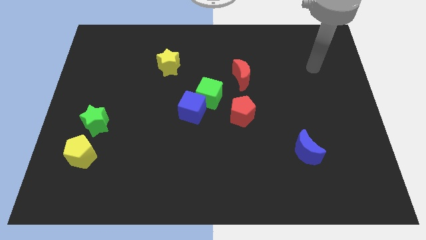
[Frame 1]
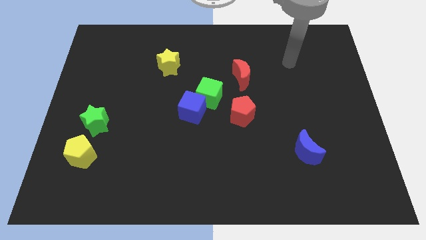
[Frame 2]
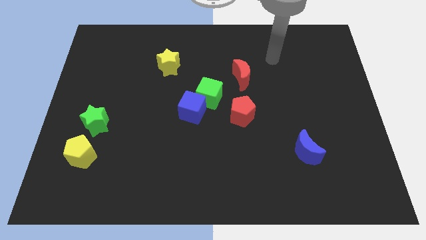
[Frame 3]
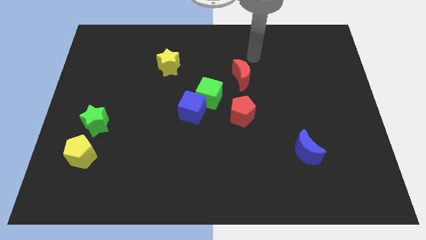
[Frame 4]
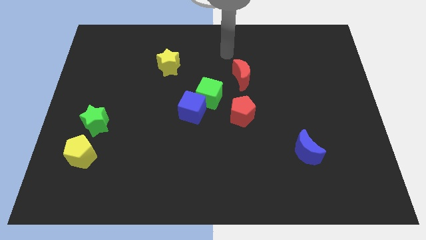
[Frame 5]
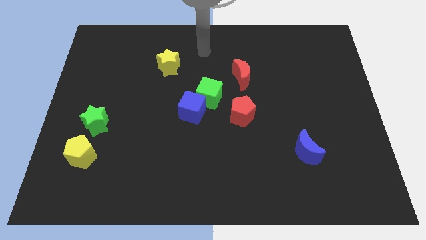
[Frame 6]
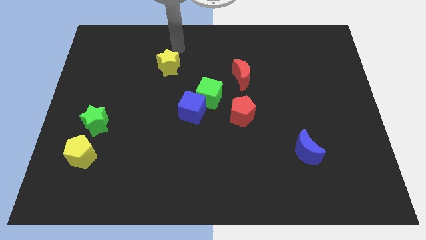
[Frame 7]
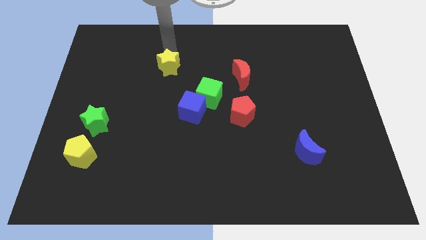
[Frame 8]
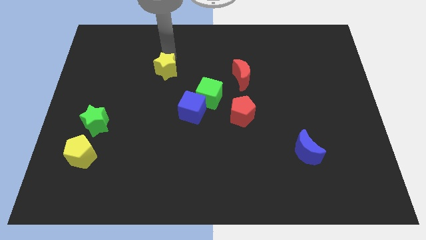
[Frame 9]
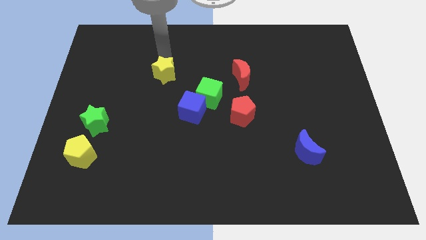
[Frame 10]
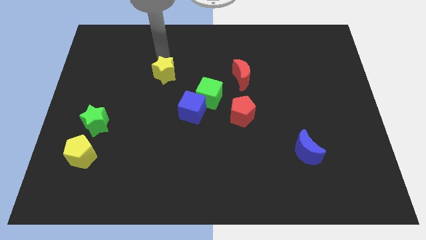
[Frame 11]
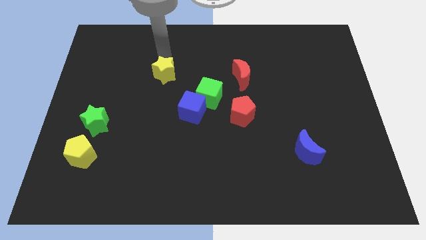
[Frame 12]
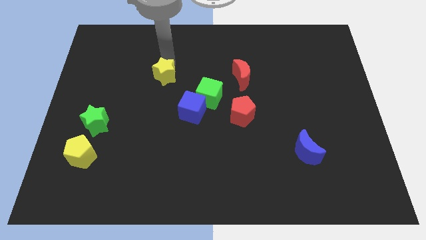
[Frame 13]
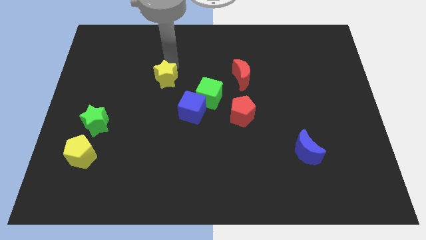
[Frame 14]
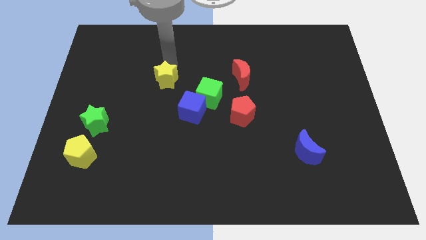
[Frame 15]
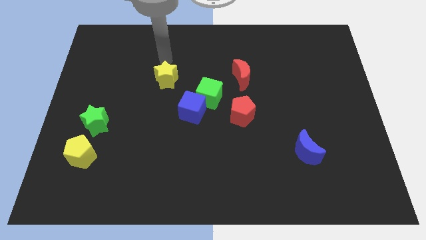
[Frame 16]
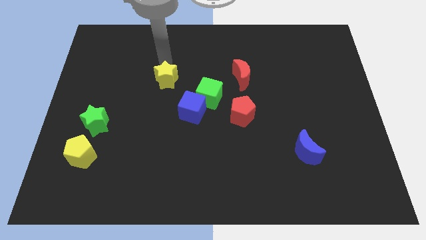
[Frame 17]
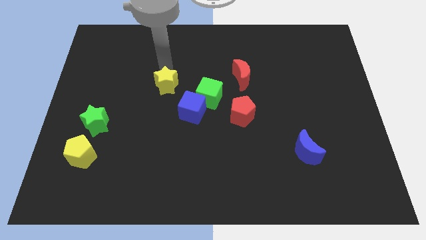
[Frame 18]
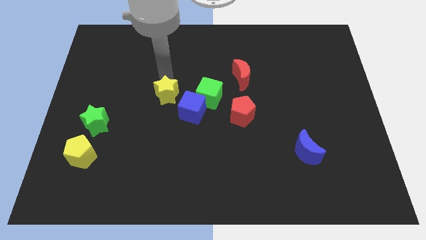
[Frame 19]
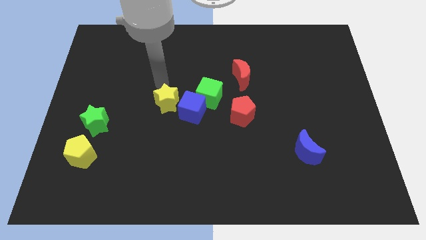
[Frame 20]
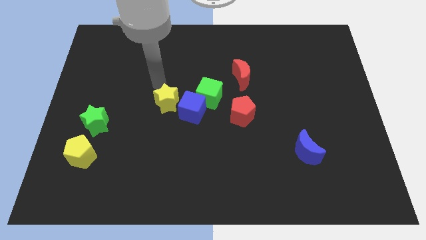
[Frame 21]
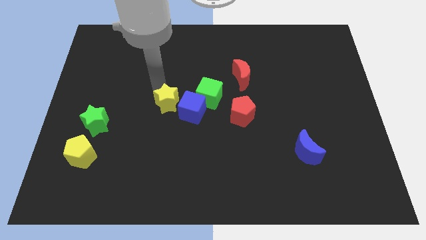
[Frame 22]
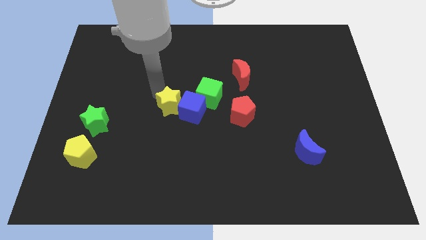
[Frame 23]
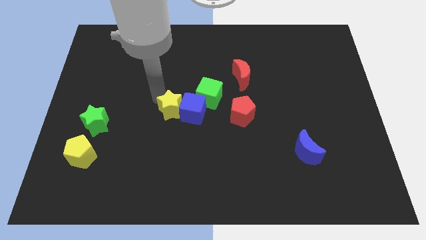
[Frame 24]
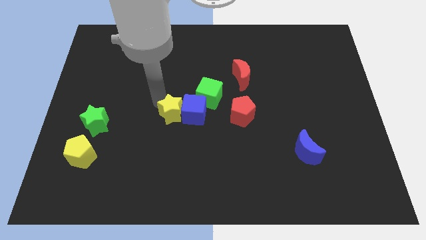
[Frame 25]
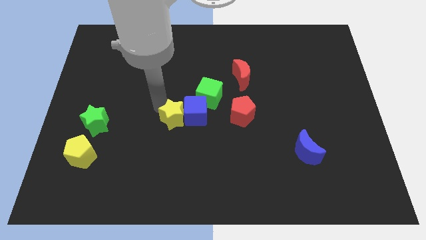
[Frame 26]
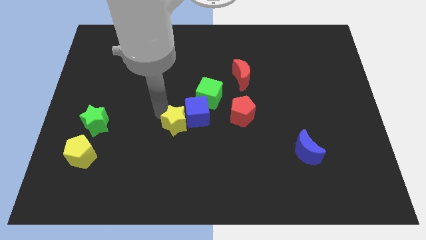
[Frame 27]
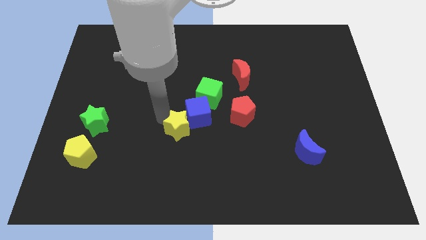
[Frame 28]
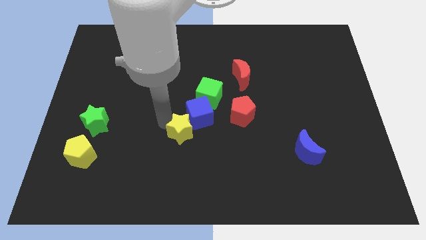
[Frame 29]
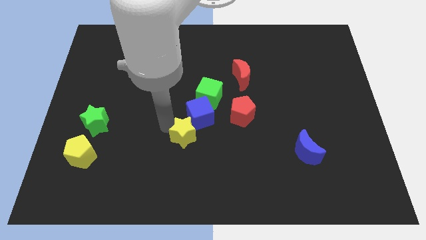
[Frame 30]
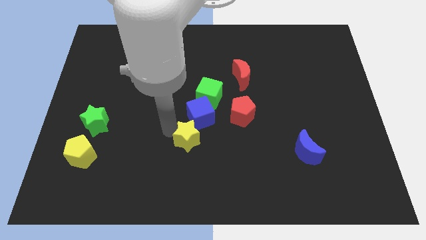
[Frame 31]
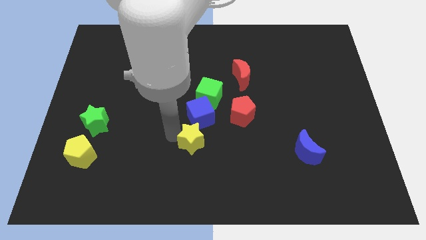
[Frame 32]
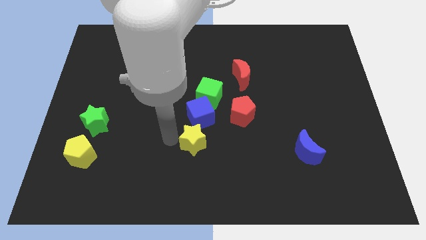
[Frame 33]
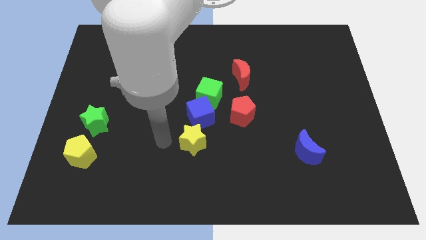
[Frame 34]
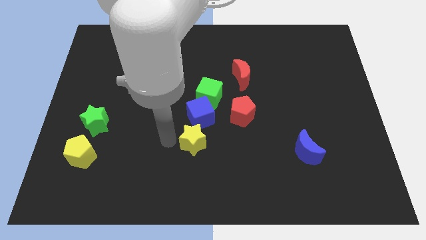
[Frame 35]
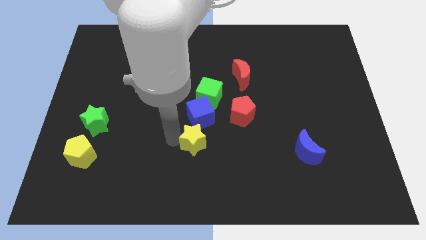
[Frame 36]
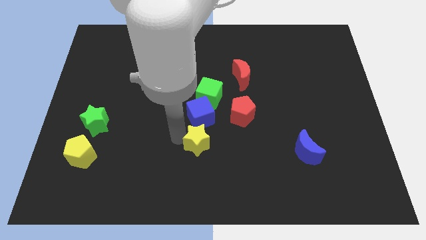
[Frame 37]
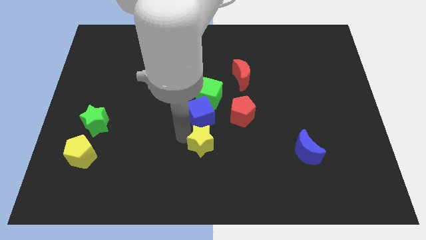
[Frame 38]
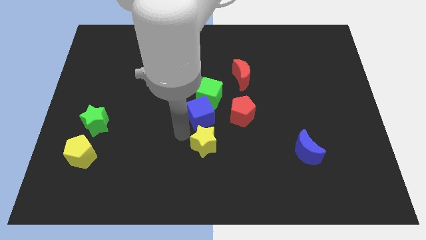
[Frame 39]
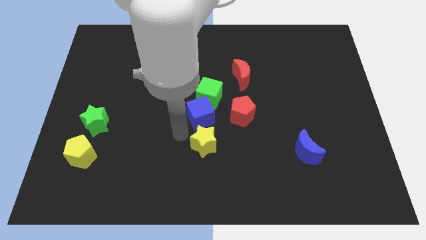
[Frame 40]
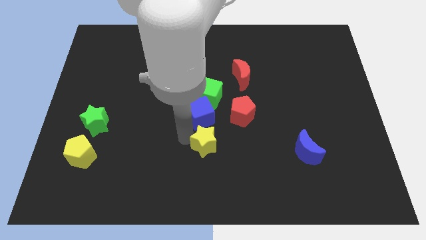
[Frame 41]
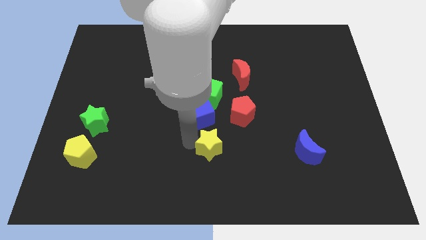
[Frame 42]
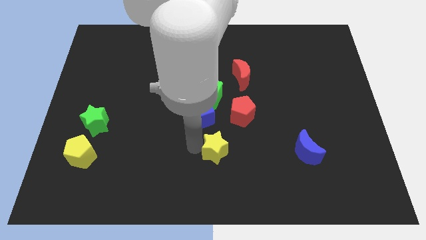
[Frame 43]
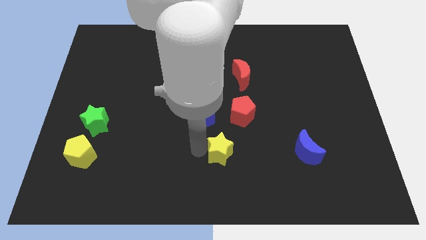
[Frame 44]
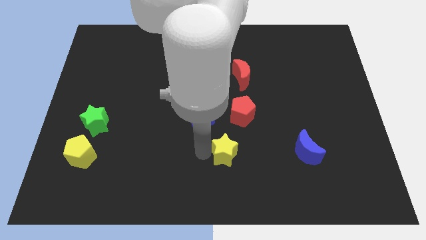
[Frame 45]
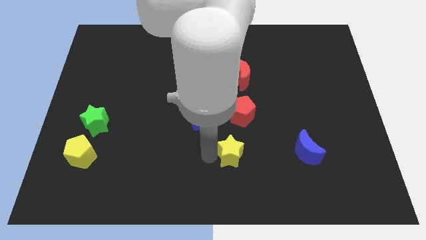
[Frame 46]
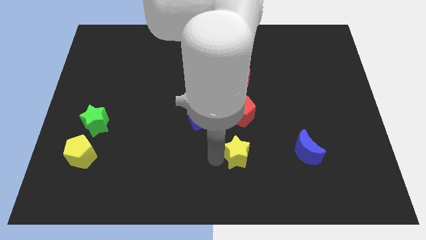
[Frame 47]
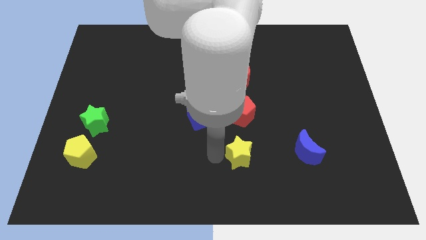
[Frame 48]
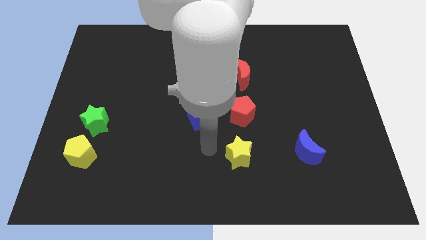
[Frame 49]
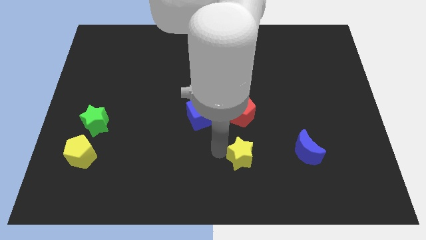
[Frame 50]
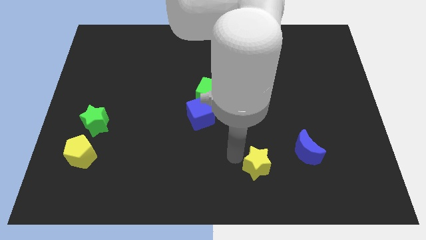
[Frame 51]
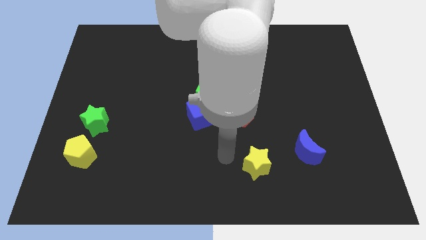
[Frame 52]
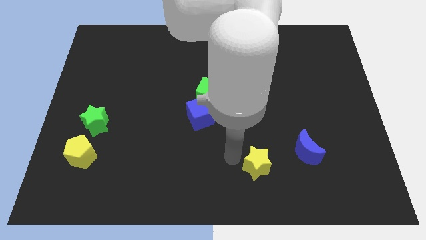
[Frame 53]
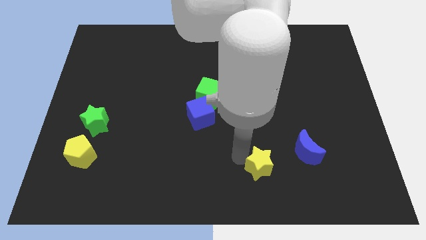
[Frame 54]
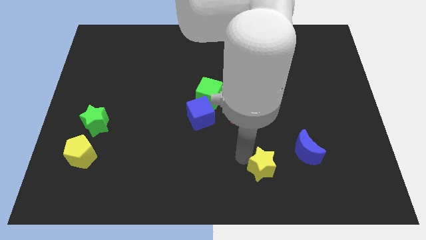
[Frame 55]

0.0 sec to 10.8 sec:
slide the yellow star diagonally down and to the left of the blue moon

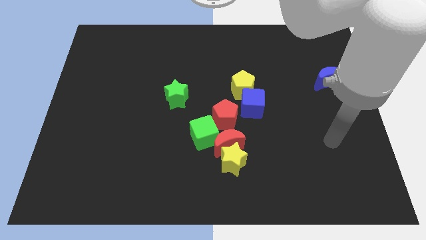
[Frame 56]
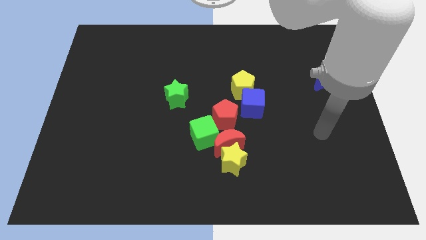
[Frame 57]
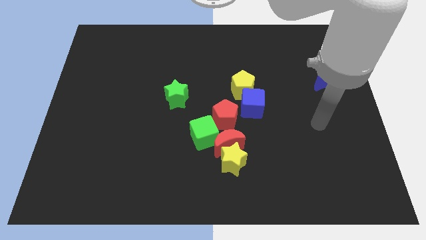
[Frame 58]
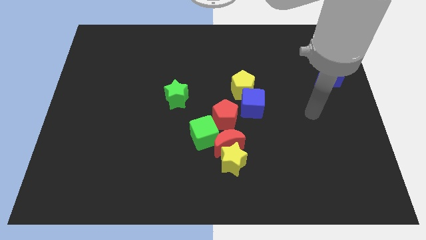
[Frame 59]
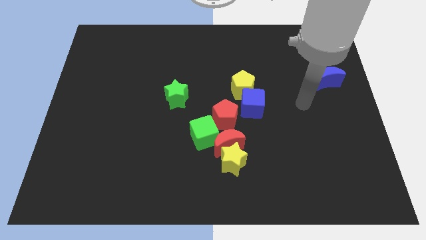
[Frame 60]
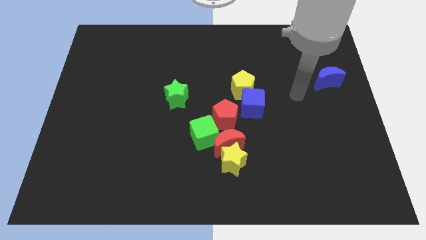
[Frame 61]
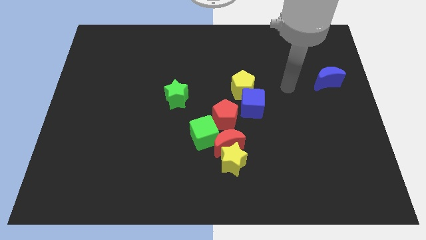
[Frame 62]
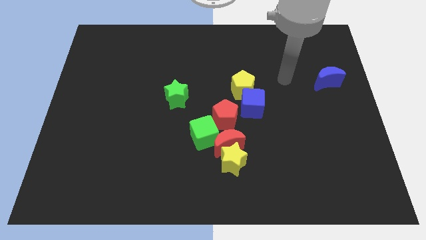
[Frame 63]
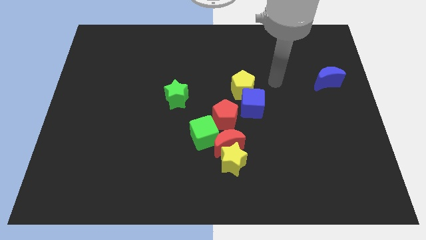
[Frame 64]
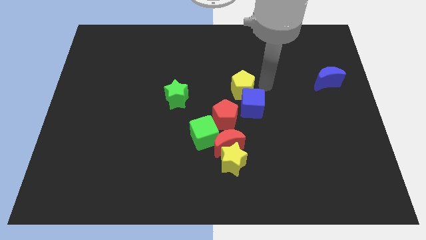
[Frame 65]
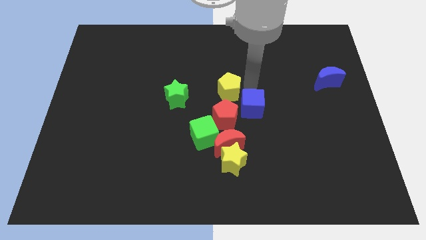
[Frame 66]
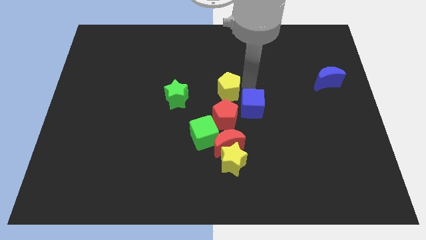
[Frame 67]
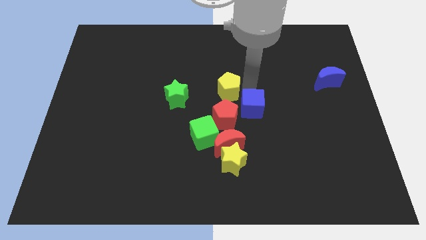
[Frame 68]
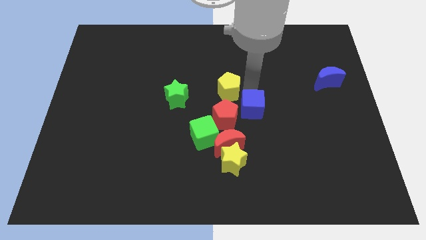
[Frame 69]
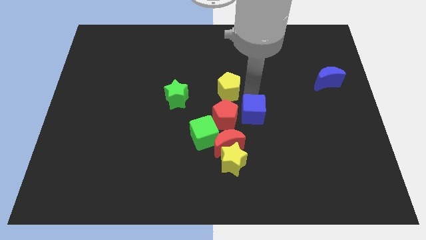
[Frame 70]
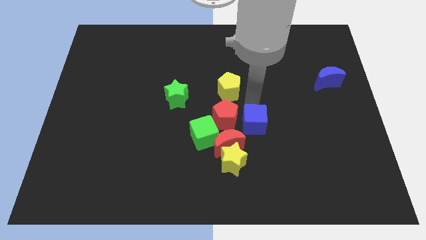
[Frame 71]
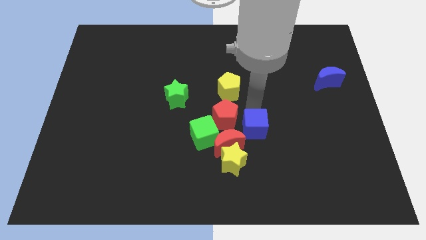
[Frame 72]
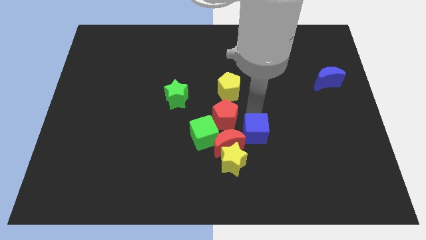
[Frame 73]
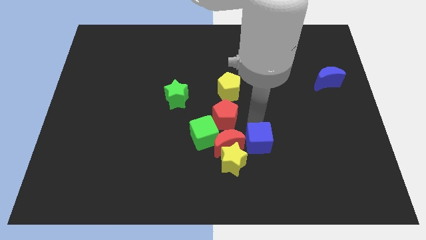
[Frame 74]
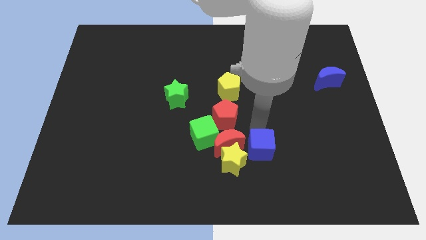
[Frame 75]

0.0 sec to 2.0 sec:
move the blue cube to the bottom right side of the red moon

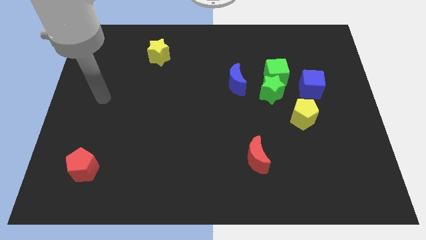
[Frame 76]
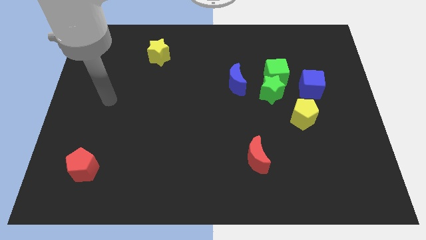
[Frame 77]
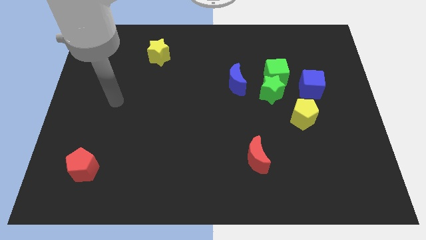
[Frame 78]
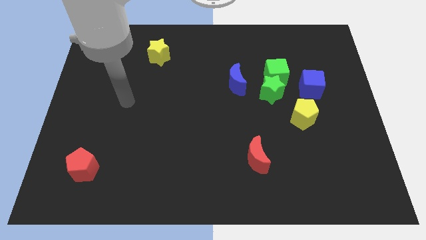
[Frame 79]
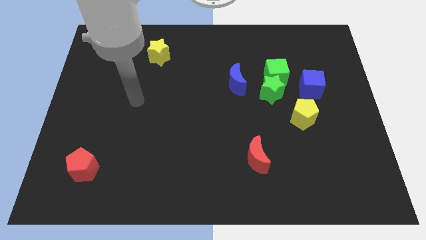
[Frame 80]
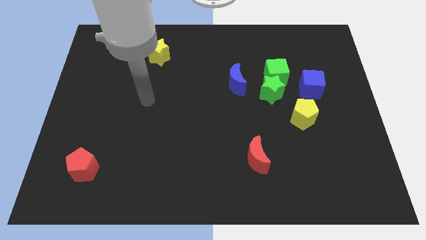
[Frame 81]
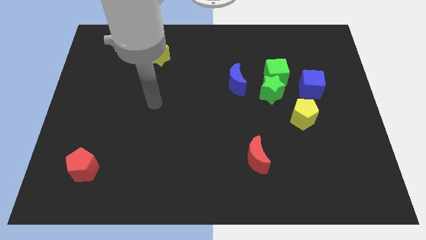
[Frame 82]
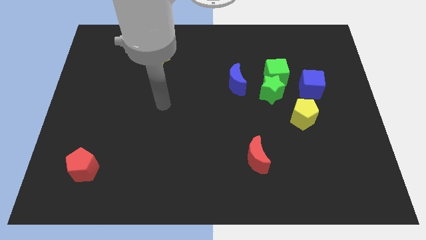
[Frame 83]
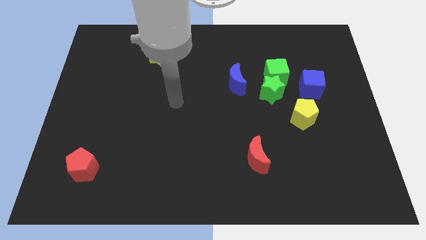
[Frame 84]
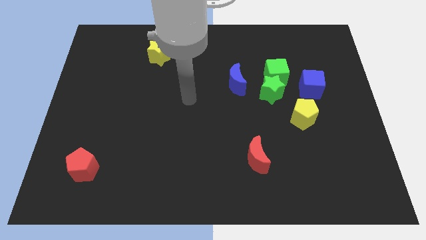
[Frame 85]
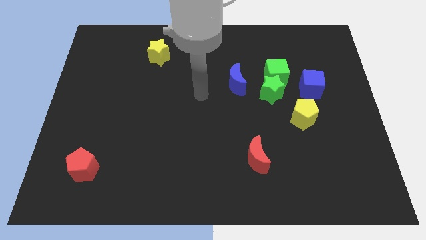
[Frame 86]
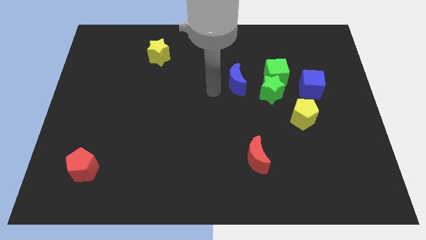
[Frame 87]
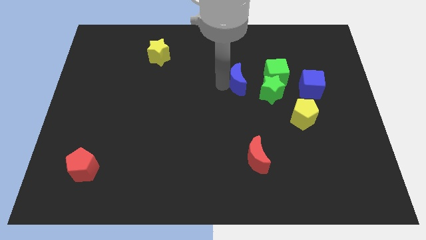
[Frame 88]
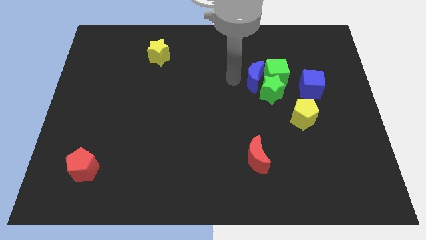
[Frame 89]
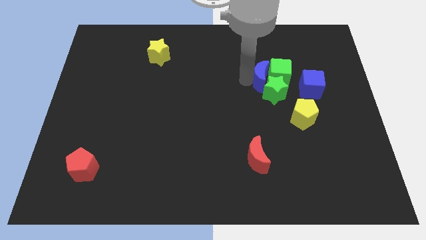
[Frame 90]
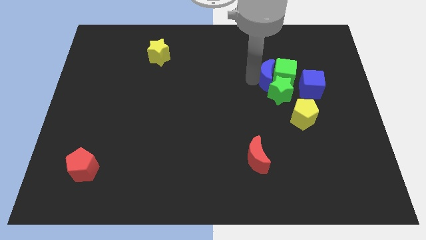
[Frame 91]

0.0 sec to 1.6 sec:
put the green star diagonally down and to the left of the blue cube
